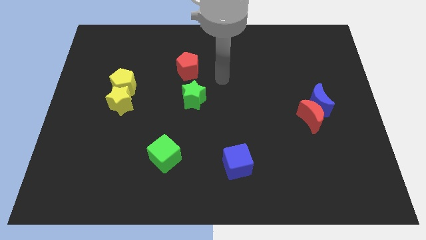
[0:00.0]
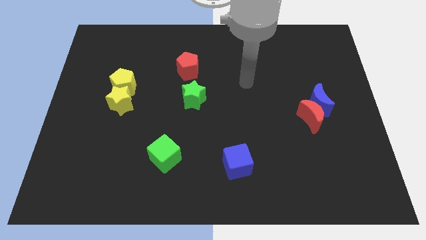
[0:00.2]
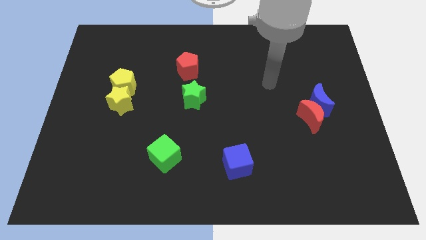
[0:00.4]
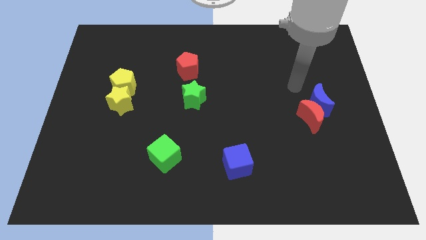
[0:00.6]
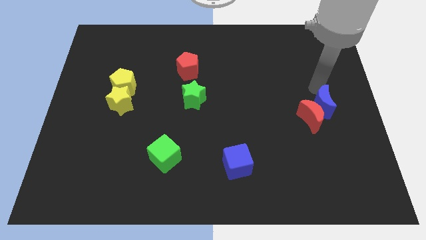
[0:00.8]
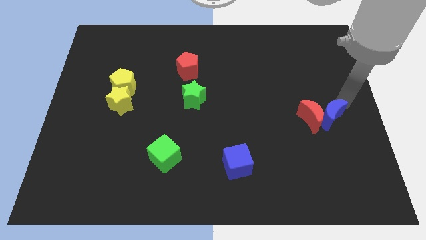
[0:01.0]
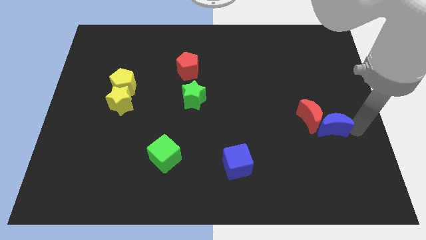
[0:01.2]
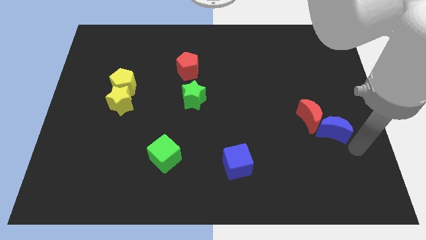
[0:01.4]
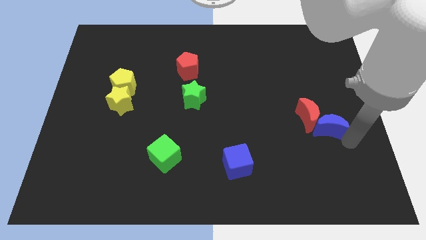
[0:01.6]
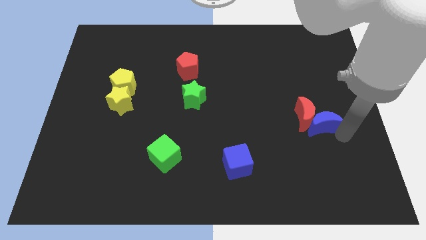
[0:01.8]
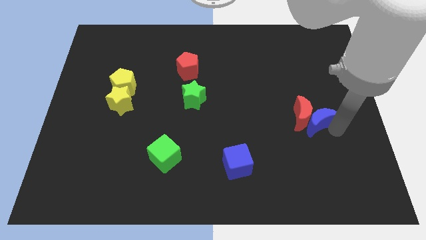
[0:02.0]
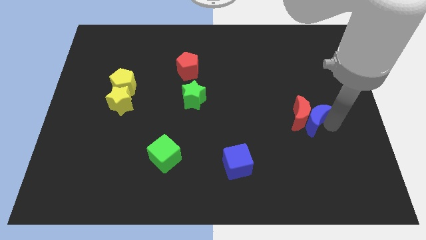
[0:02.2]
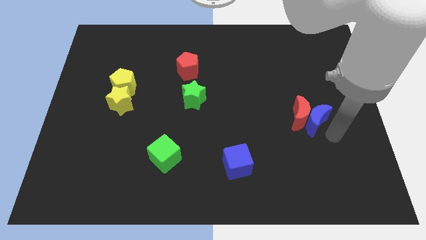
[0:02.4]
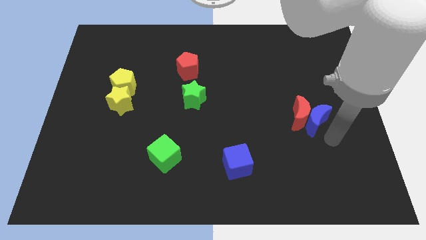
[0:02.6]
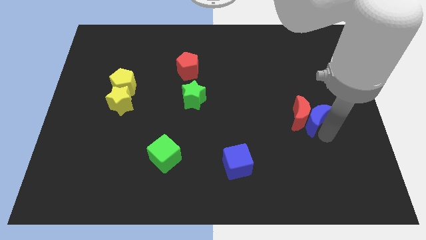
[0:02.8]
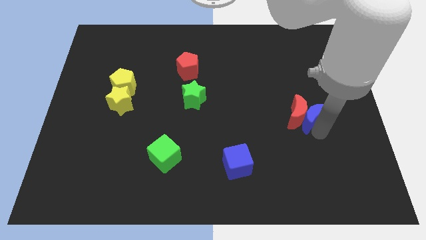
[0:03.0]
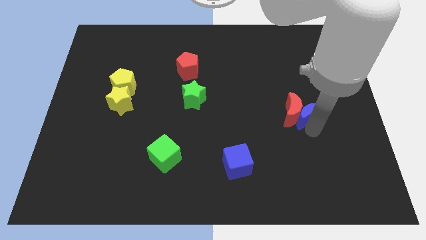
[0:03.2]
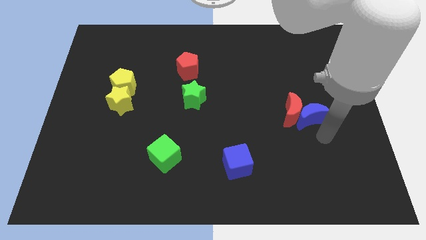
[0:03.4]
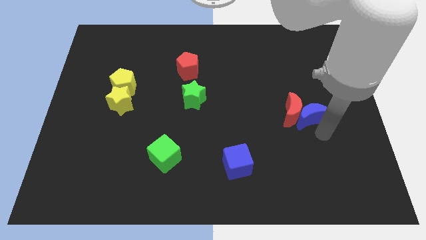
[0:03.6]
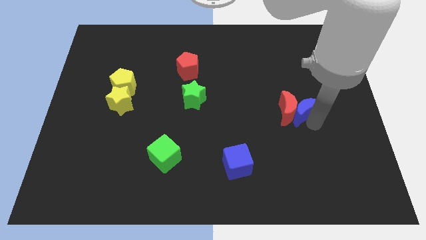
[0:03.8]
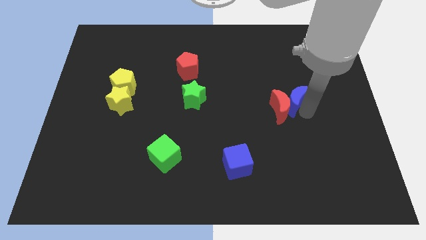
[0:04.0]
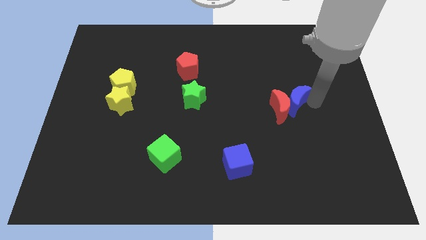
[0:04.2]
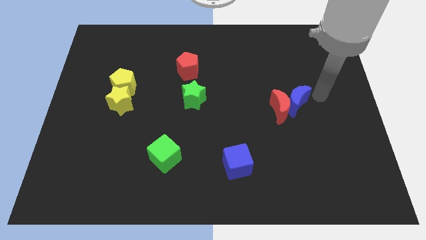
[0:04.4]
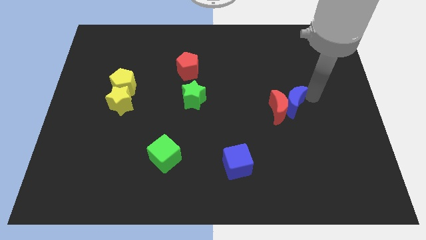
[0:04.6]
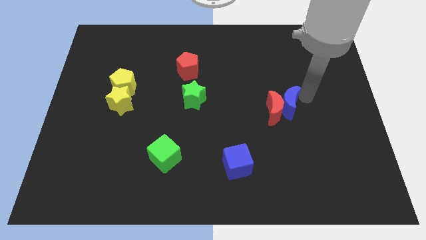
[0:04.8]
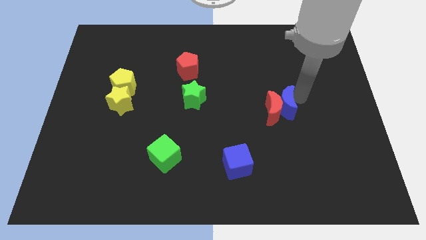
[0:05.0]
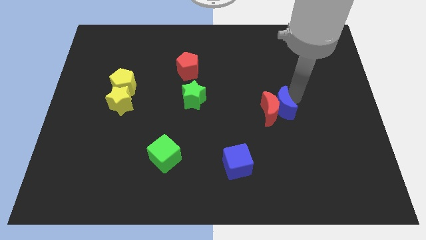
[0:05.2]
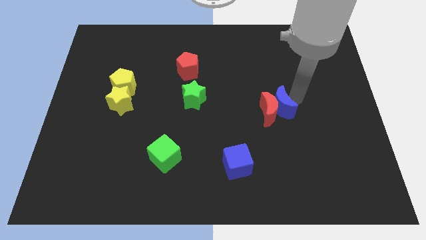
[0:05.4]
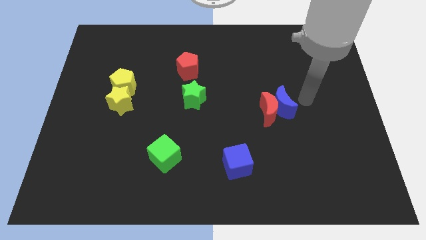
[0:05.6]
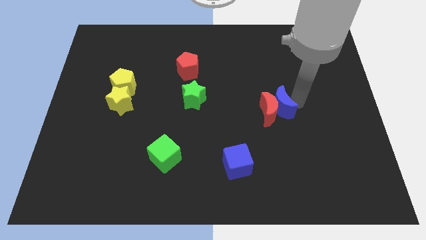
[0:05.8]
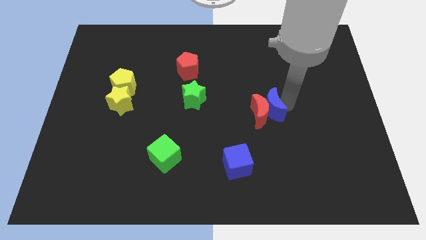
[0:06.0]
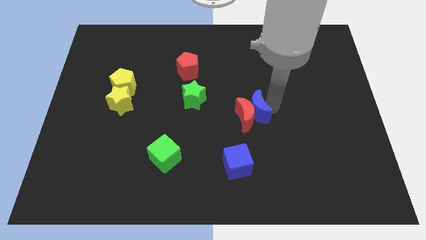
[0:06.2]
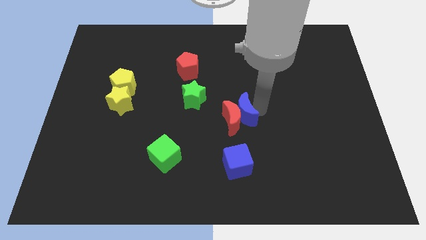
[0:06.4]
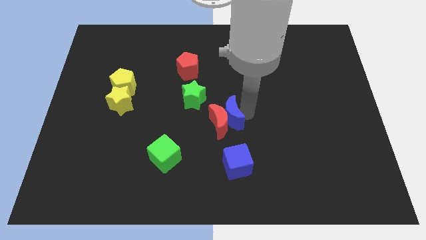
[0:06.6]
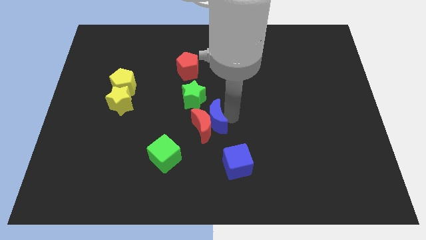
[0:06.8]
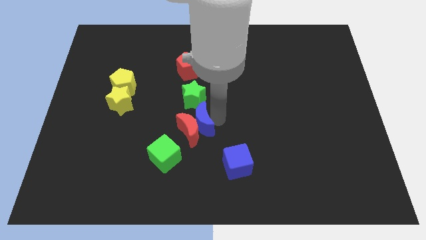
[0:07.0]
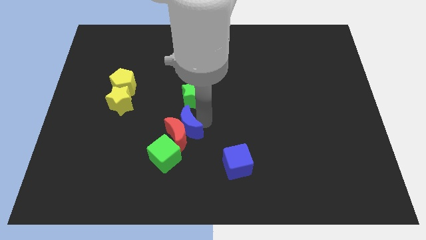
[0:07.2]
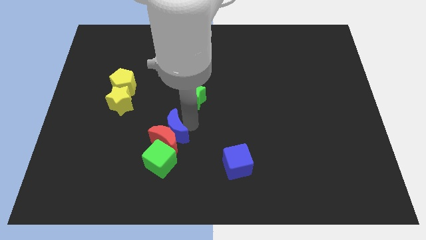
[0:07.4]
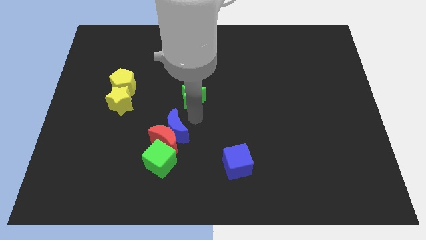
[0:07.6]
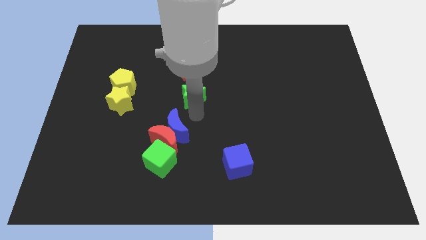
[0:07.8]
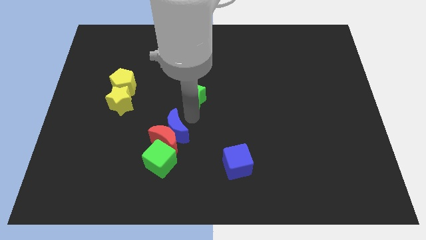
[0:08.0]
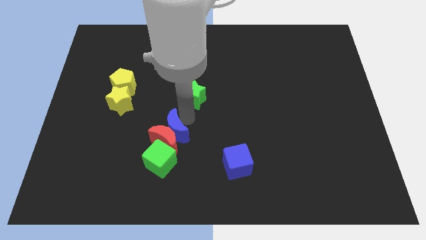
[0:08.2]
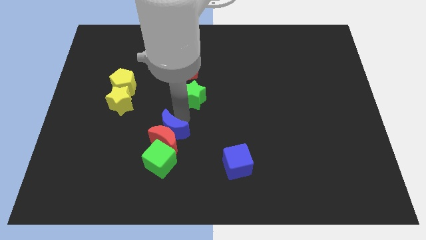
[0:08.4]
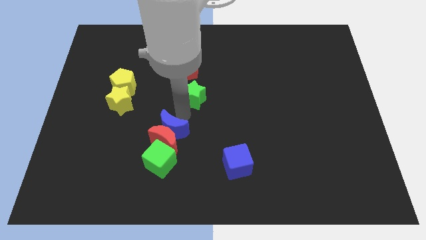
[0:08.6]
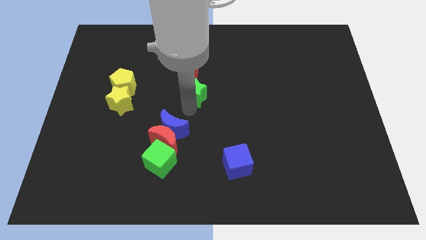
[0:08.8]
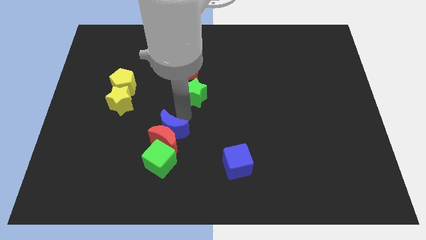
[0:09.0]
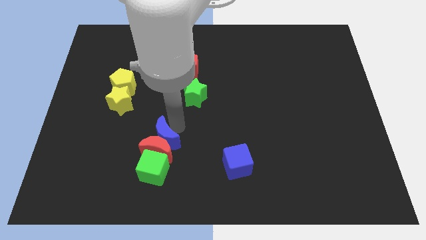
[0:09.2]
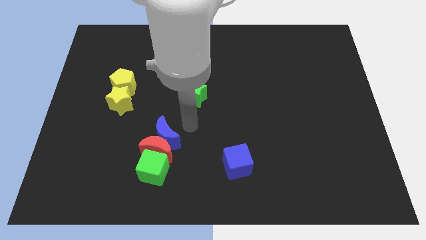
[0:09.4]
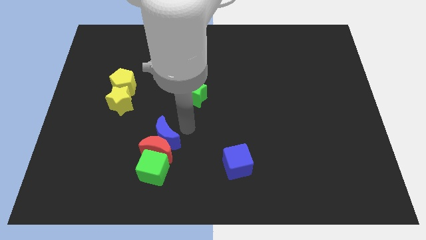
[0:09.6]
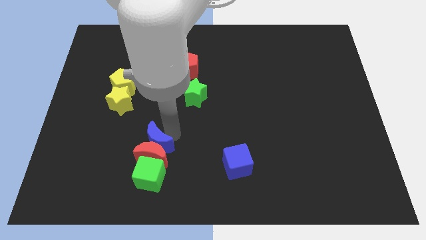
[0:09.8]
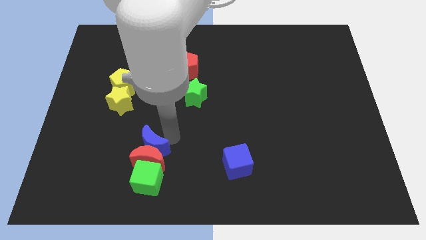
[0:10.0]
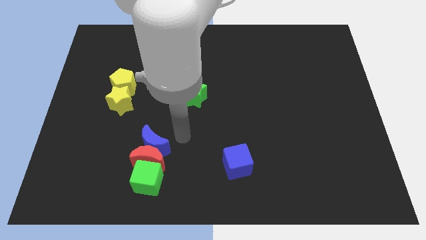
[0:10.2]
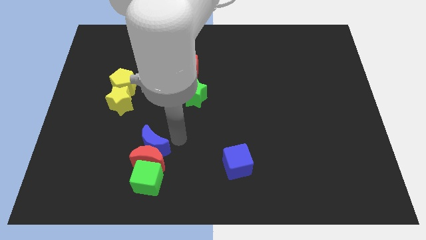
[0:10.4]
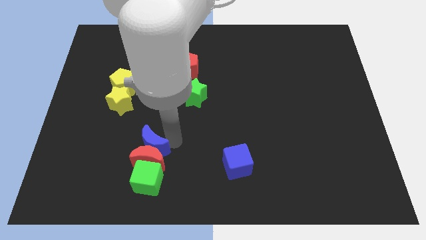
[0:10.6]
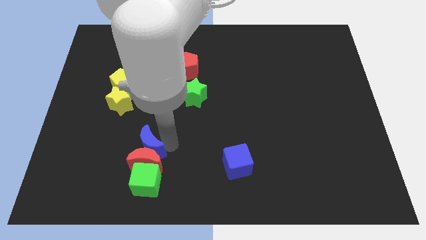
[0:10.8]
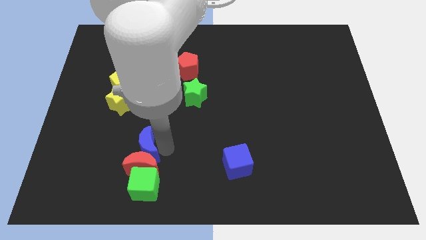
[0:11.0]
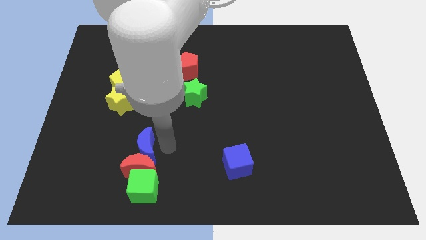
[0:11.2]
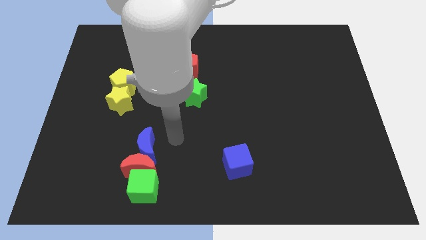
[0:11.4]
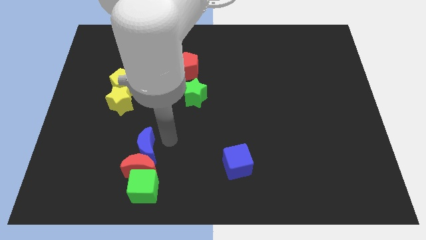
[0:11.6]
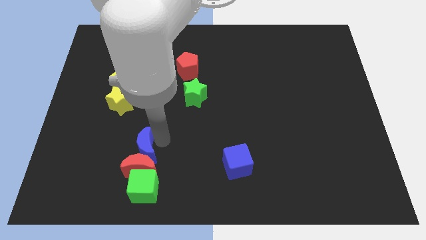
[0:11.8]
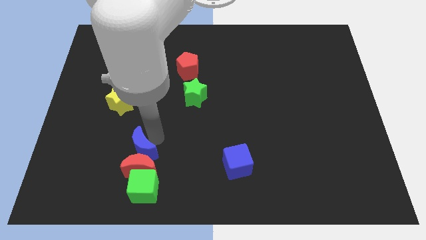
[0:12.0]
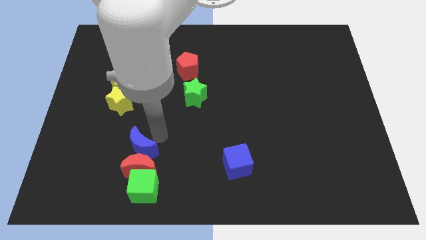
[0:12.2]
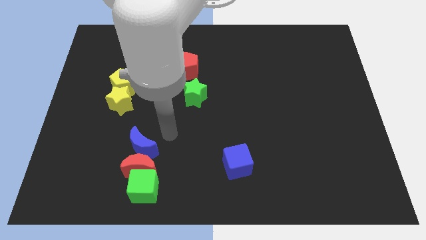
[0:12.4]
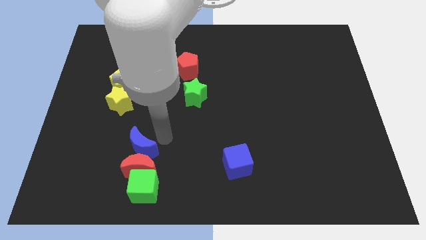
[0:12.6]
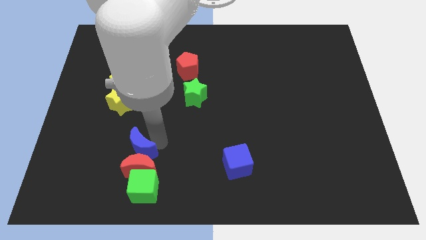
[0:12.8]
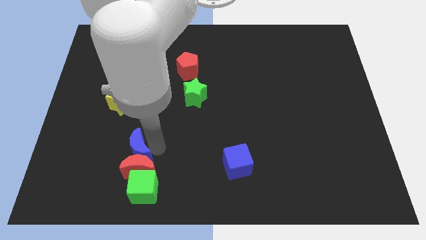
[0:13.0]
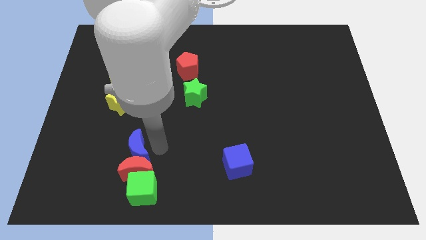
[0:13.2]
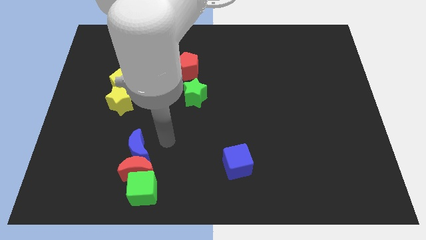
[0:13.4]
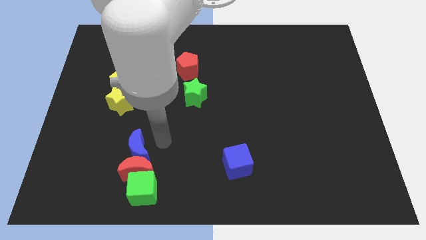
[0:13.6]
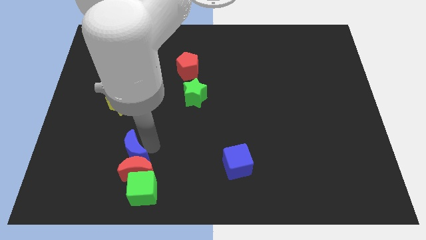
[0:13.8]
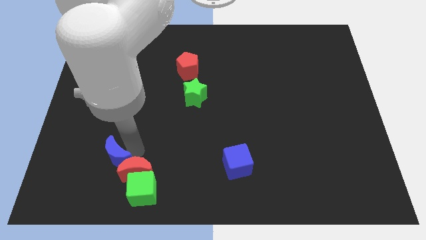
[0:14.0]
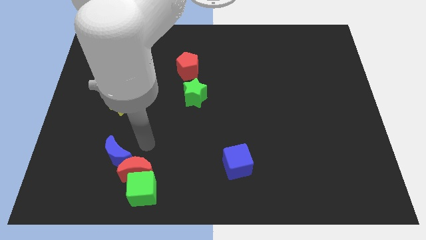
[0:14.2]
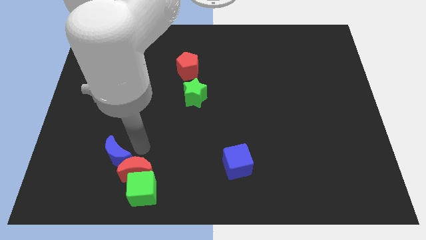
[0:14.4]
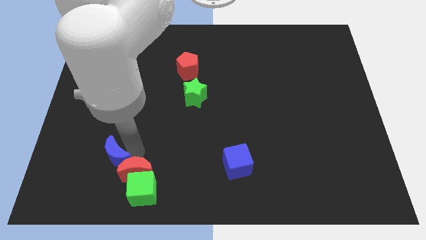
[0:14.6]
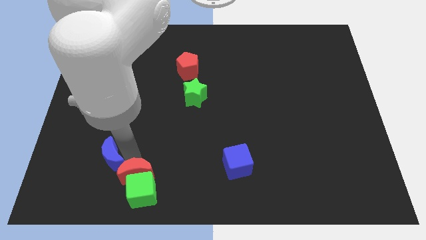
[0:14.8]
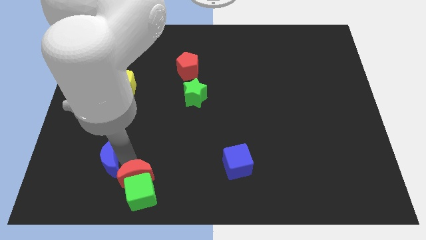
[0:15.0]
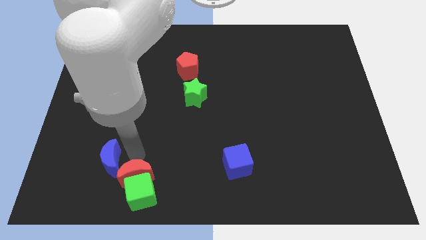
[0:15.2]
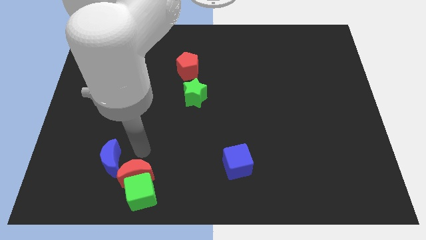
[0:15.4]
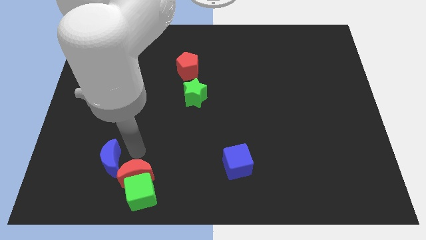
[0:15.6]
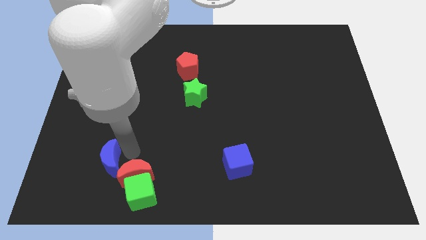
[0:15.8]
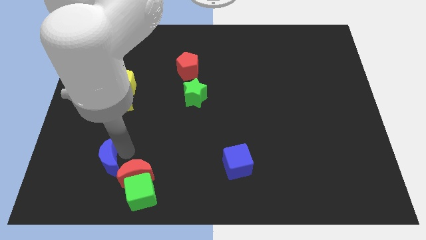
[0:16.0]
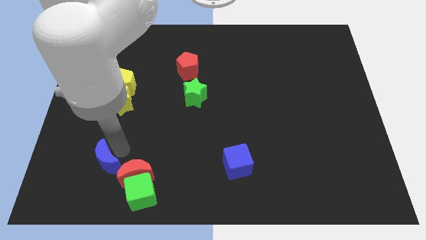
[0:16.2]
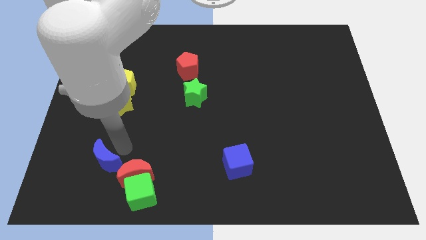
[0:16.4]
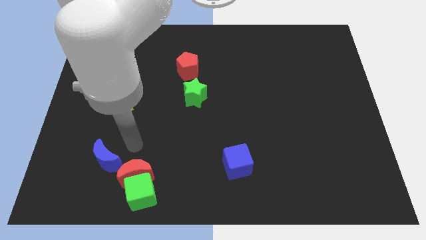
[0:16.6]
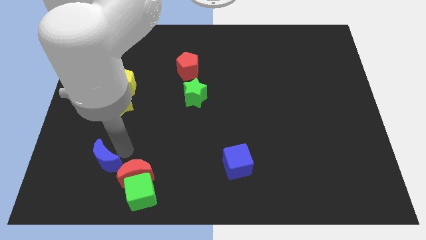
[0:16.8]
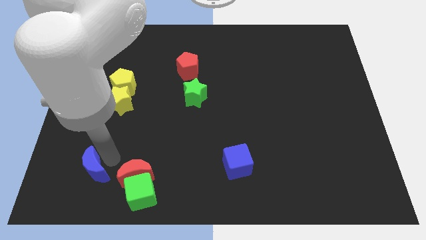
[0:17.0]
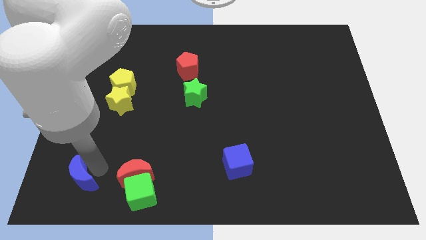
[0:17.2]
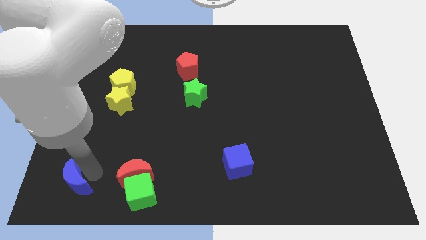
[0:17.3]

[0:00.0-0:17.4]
put the blue moon to the lower left corner
